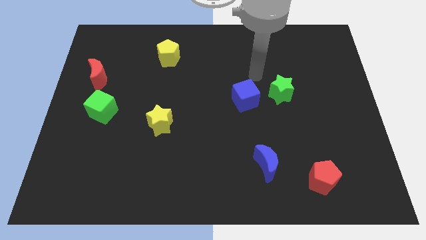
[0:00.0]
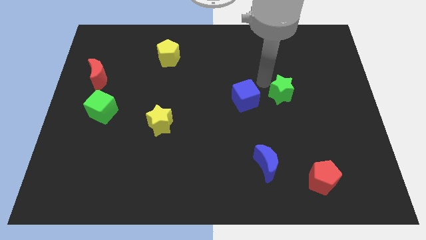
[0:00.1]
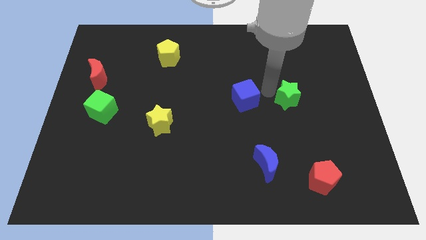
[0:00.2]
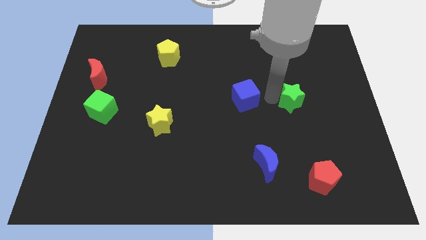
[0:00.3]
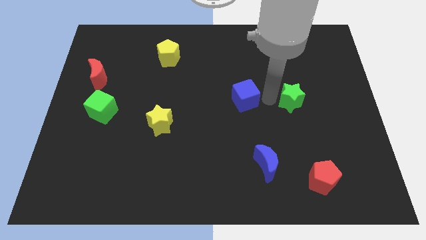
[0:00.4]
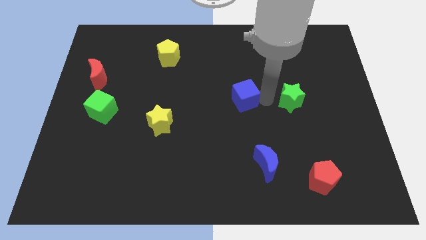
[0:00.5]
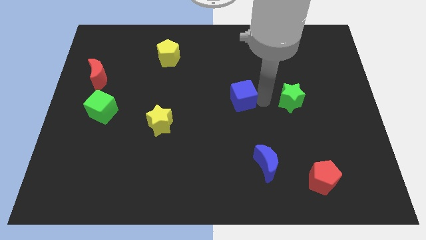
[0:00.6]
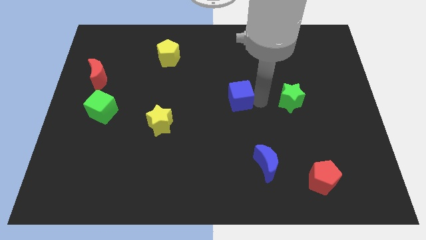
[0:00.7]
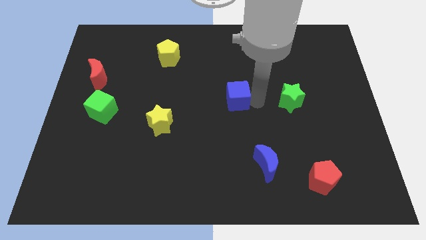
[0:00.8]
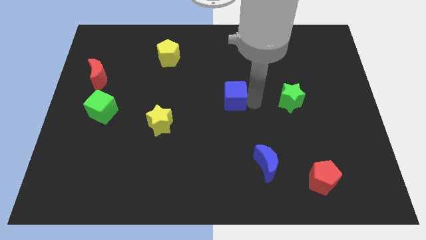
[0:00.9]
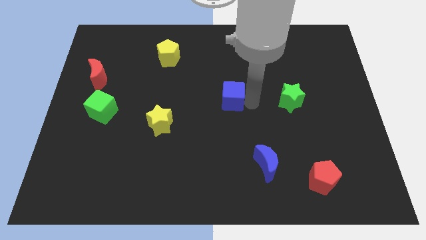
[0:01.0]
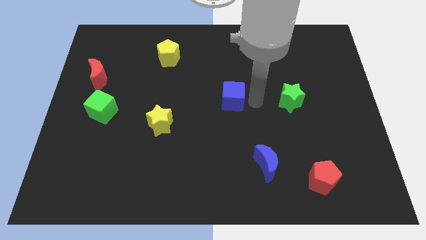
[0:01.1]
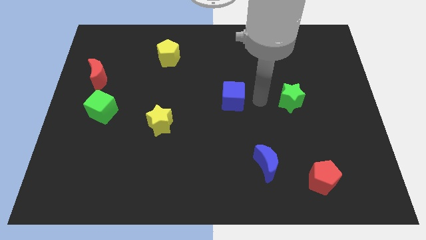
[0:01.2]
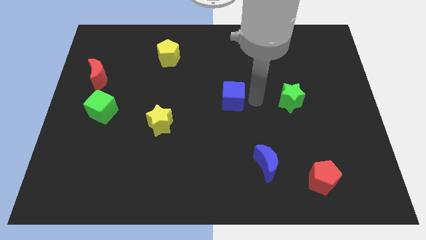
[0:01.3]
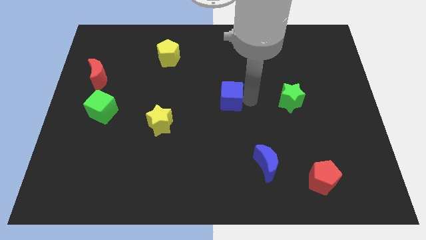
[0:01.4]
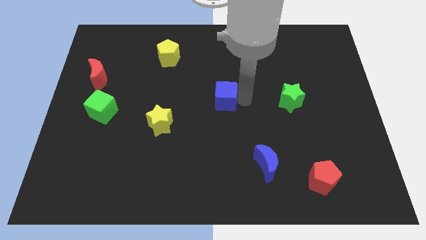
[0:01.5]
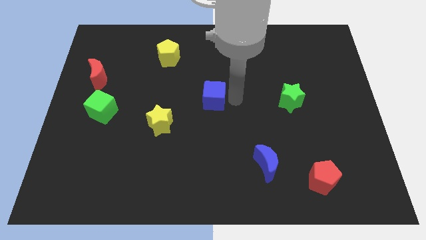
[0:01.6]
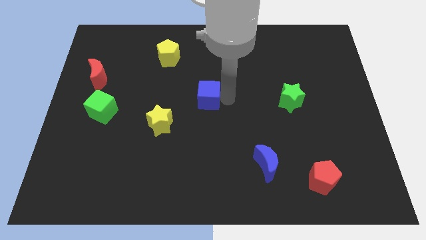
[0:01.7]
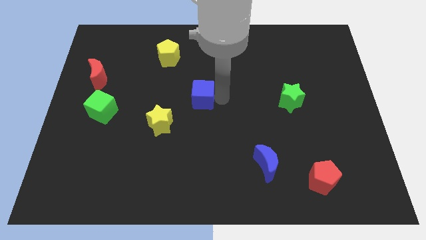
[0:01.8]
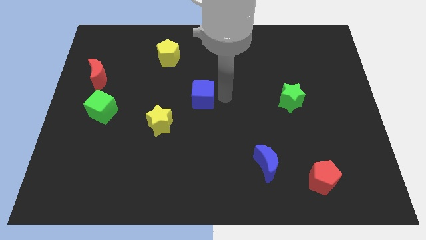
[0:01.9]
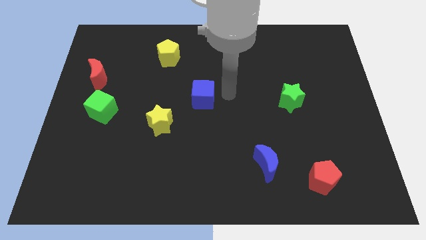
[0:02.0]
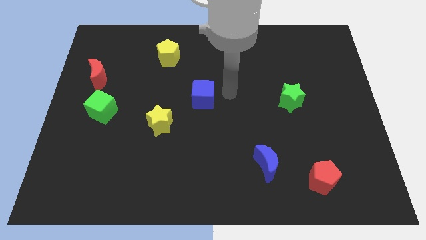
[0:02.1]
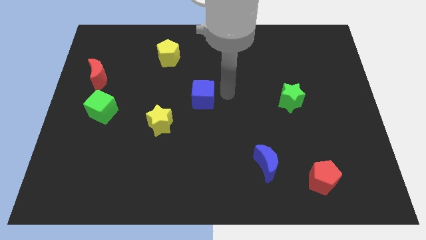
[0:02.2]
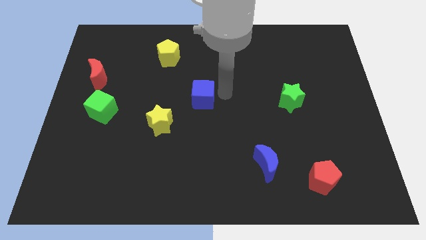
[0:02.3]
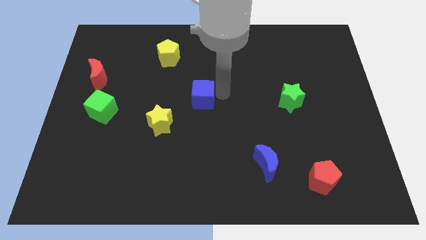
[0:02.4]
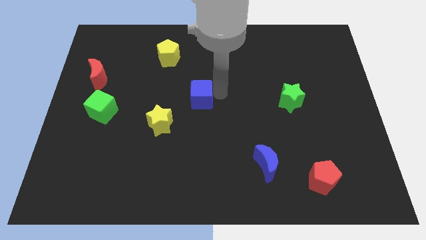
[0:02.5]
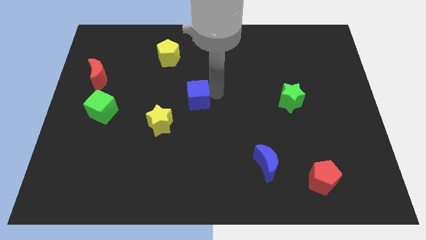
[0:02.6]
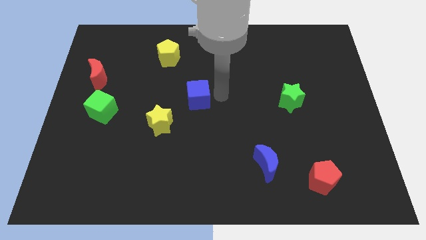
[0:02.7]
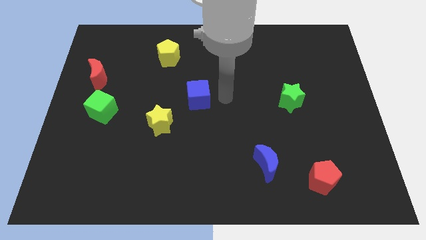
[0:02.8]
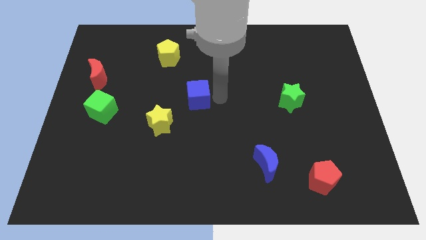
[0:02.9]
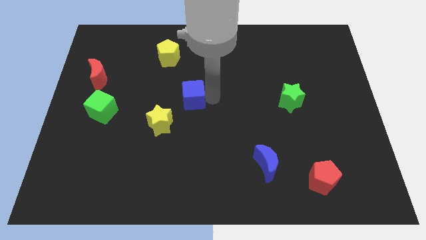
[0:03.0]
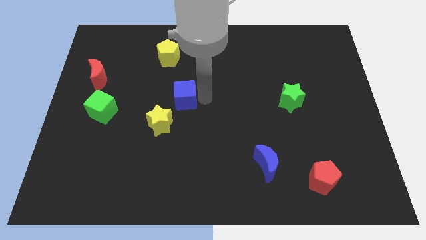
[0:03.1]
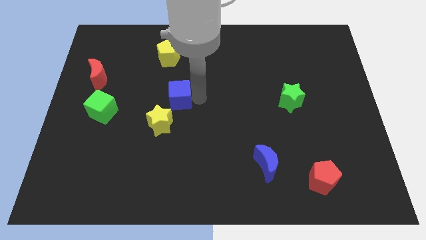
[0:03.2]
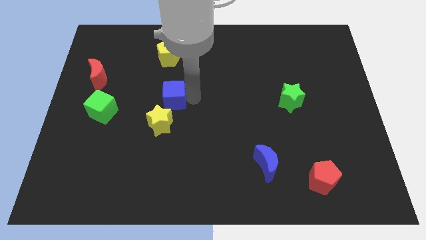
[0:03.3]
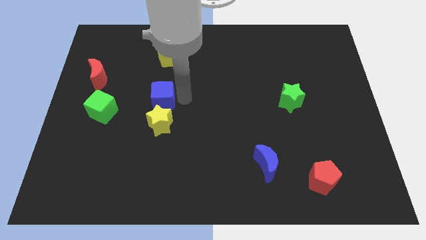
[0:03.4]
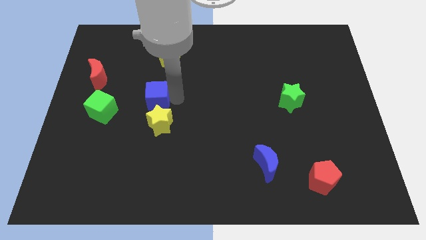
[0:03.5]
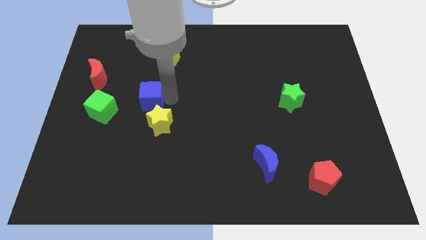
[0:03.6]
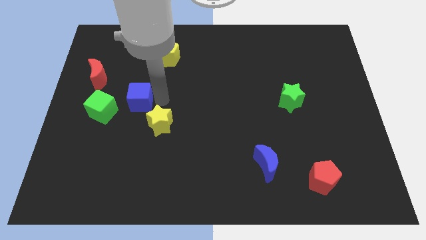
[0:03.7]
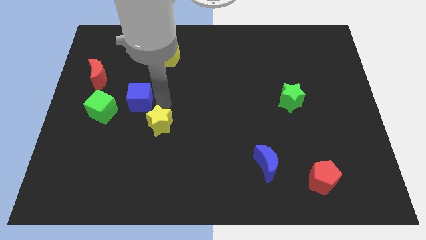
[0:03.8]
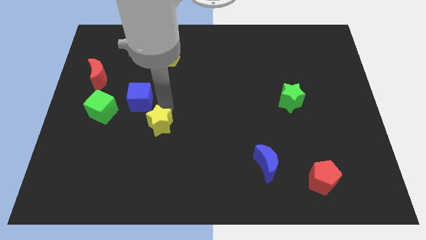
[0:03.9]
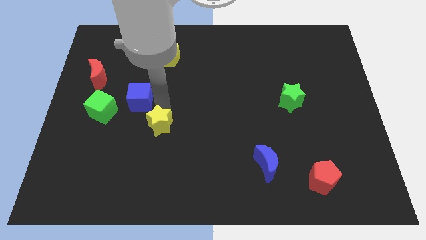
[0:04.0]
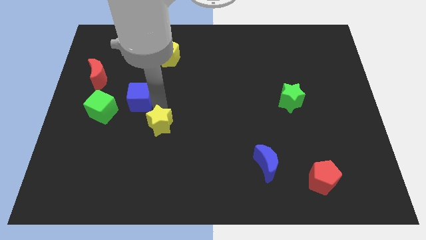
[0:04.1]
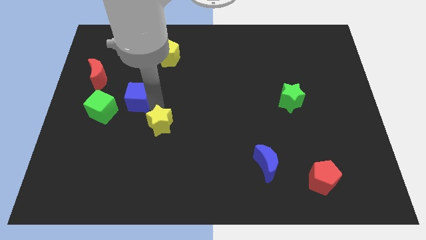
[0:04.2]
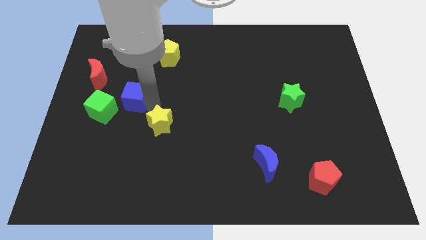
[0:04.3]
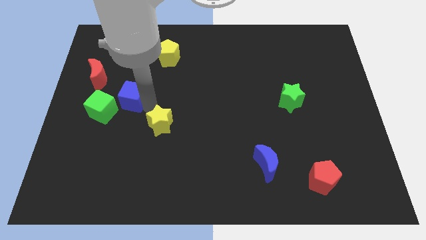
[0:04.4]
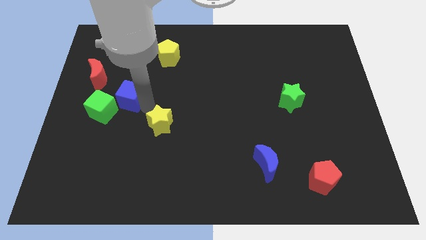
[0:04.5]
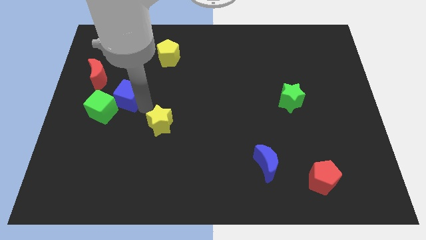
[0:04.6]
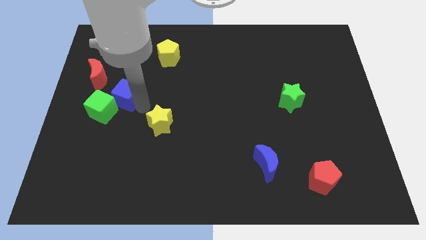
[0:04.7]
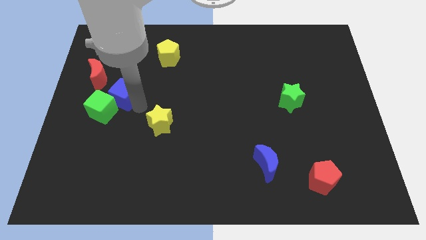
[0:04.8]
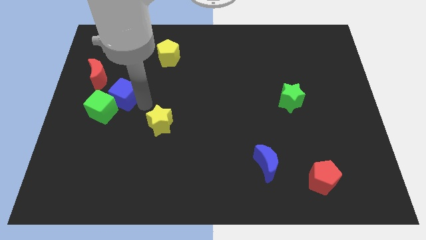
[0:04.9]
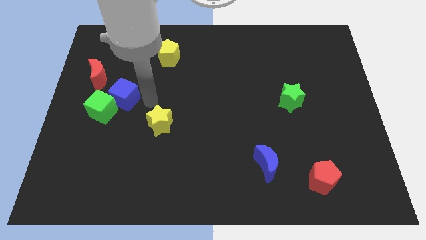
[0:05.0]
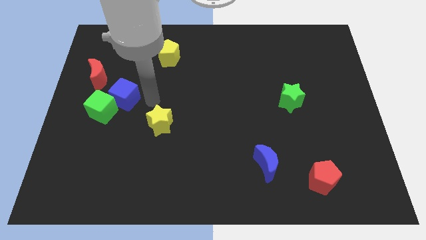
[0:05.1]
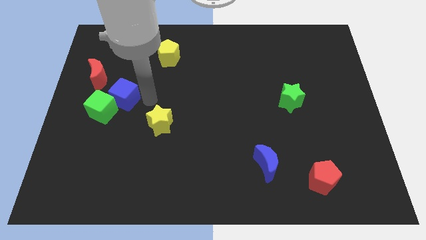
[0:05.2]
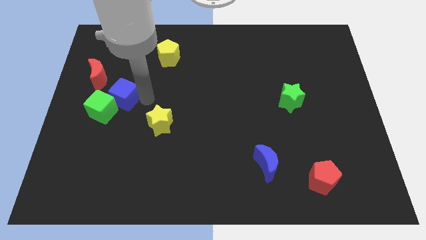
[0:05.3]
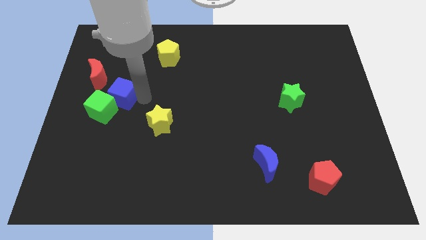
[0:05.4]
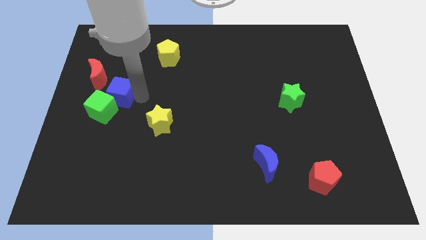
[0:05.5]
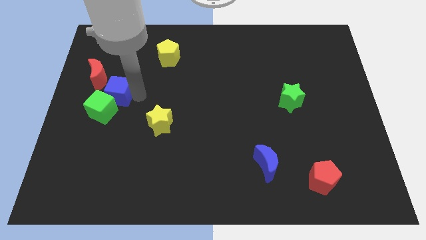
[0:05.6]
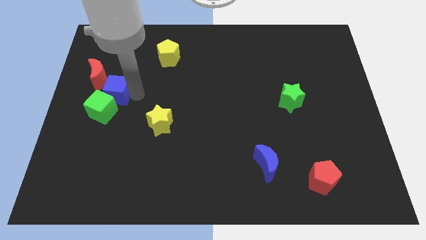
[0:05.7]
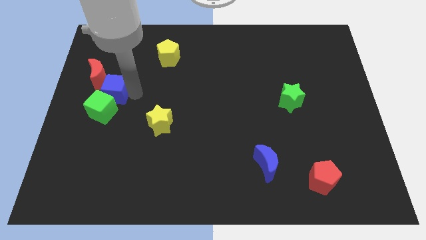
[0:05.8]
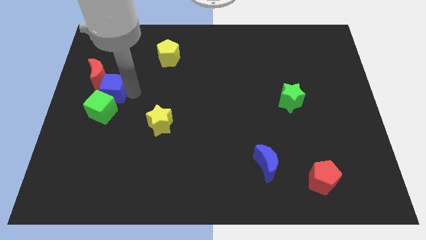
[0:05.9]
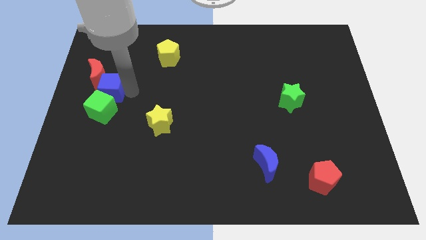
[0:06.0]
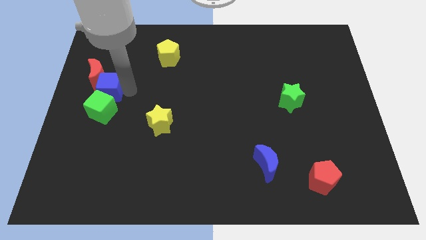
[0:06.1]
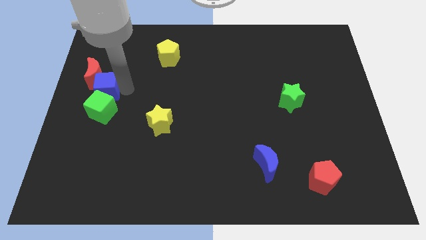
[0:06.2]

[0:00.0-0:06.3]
put the blue cube to the left side

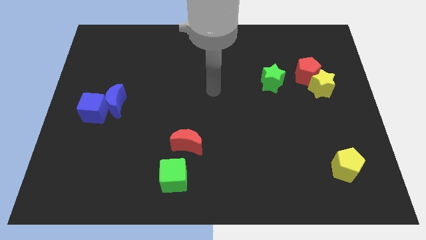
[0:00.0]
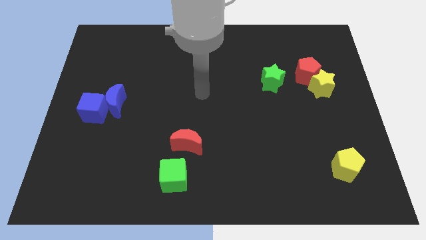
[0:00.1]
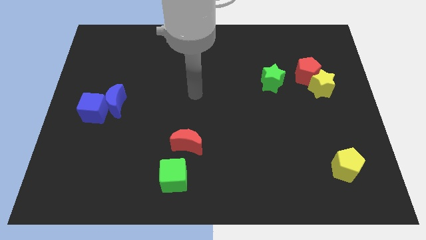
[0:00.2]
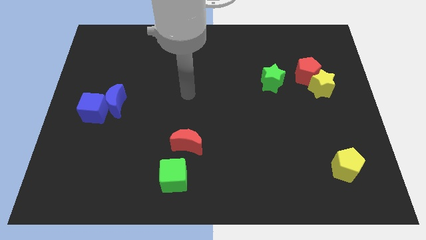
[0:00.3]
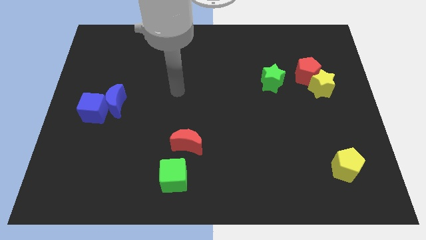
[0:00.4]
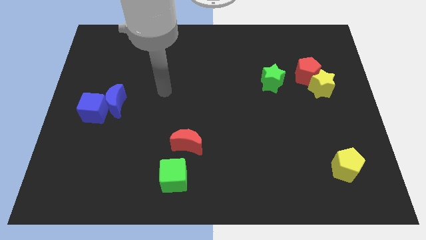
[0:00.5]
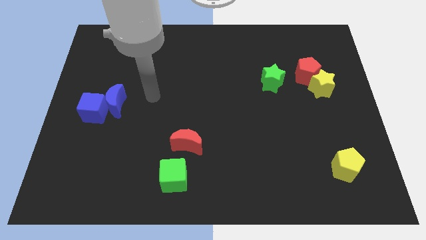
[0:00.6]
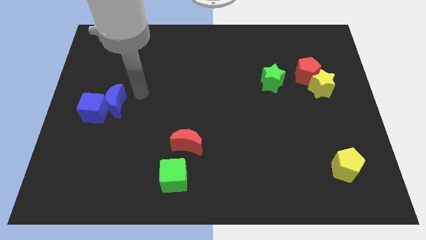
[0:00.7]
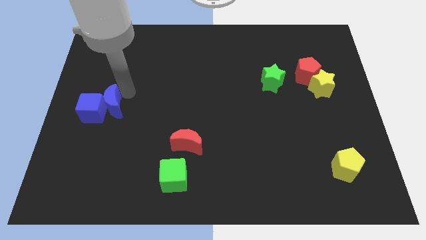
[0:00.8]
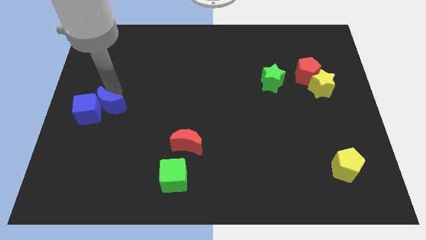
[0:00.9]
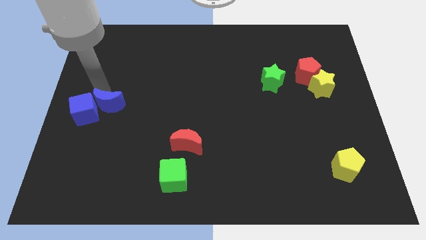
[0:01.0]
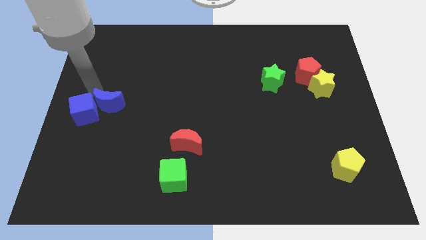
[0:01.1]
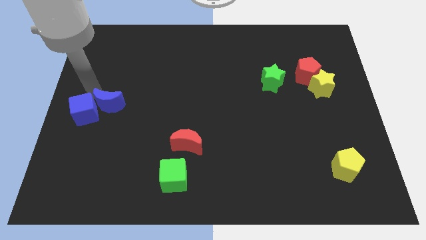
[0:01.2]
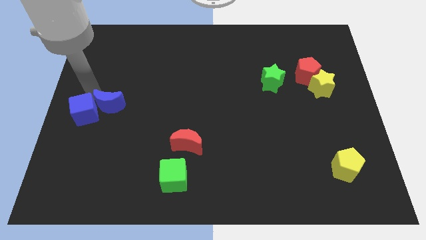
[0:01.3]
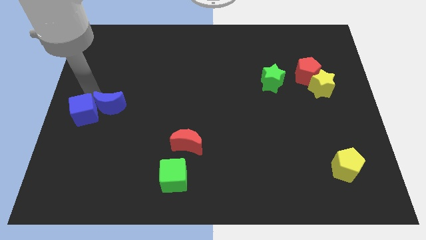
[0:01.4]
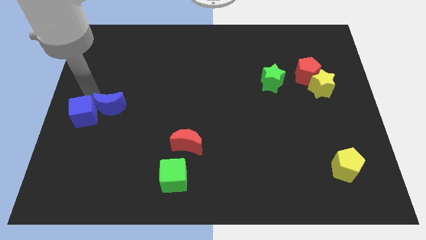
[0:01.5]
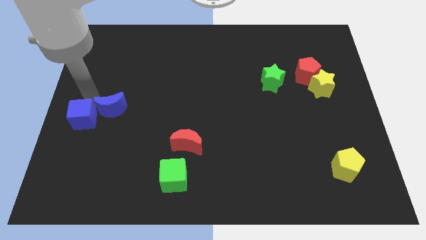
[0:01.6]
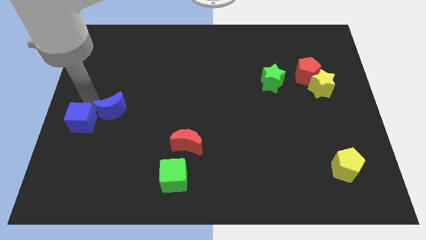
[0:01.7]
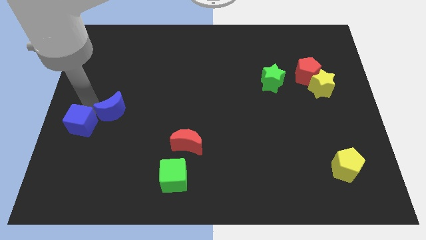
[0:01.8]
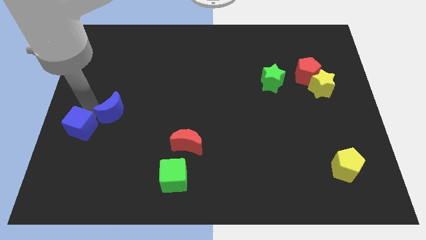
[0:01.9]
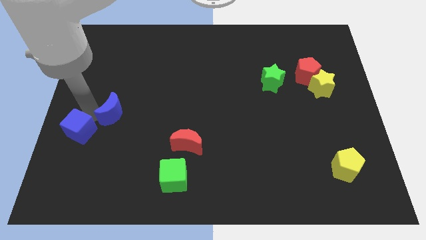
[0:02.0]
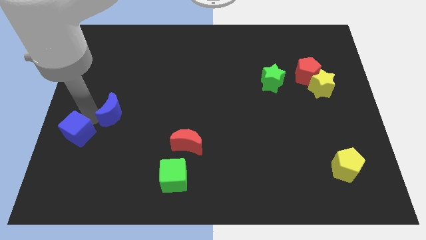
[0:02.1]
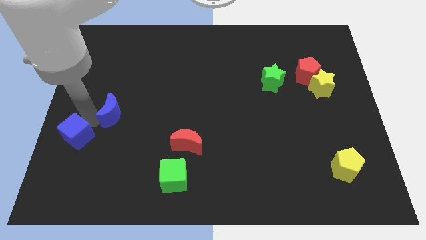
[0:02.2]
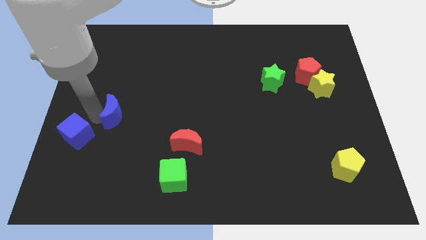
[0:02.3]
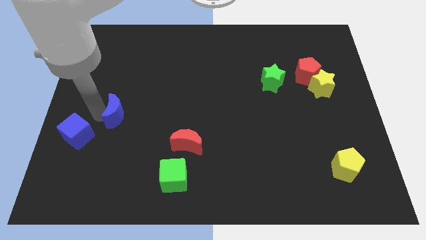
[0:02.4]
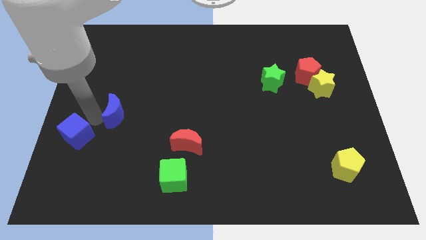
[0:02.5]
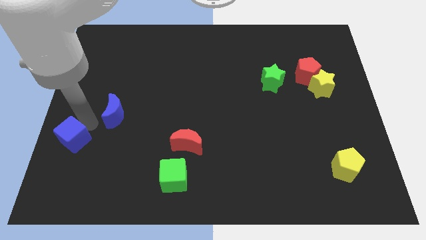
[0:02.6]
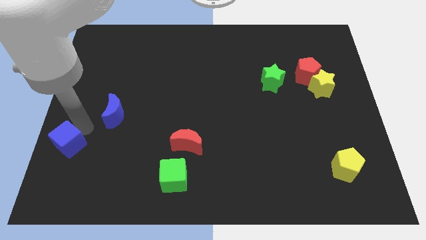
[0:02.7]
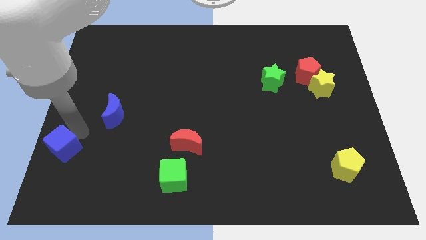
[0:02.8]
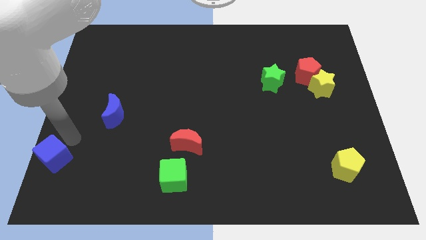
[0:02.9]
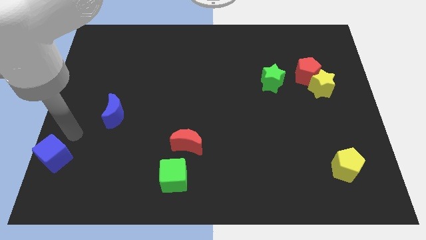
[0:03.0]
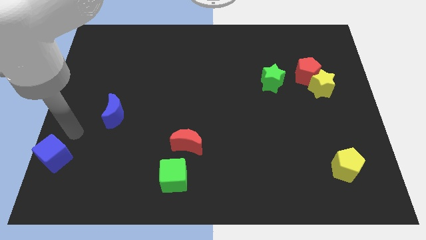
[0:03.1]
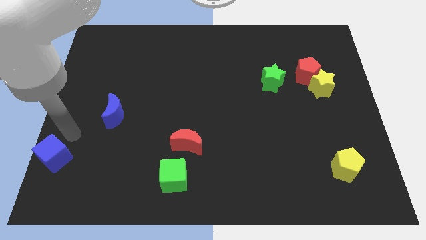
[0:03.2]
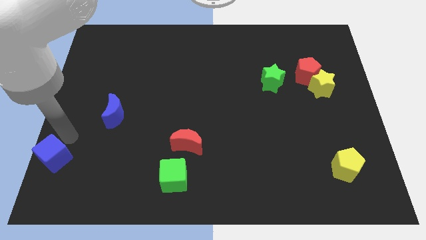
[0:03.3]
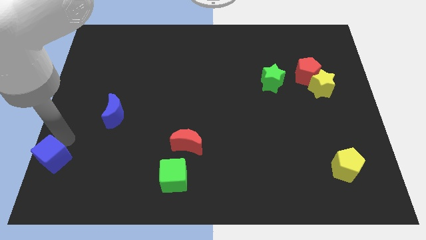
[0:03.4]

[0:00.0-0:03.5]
slide the blue cube to the bottom left
